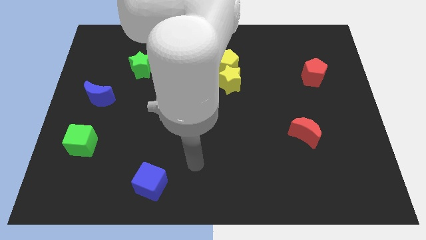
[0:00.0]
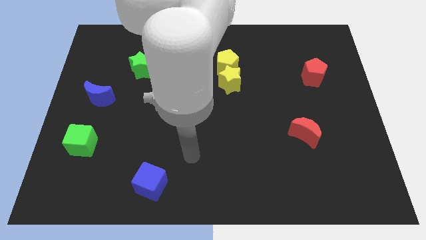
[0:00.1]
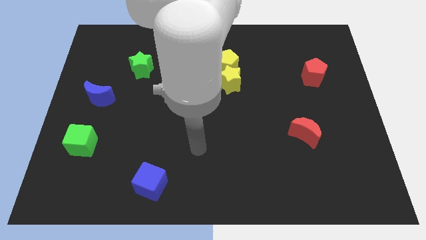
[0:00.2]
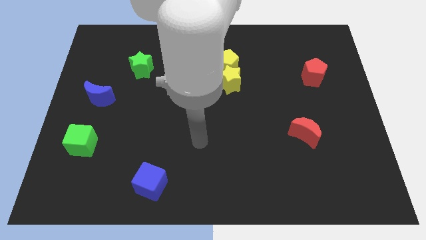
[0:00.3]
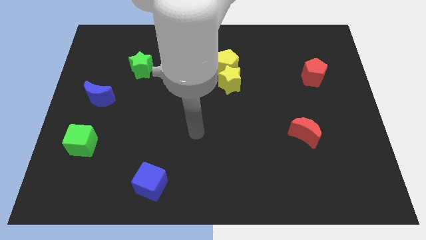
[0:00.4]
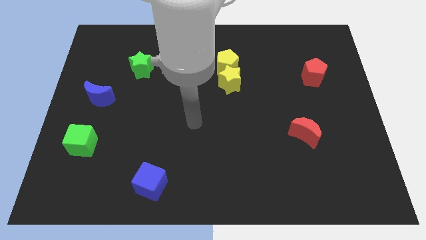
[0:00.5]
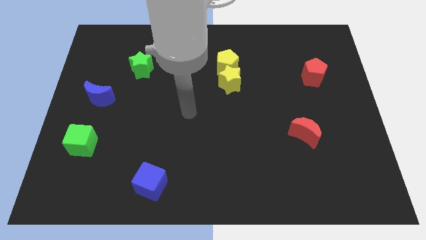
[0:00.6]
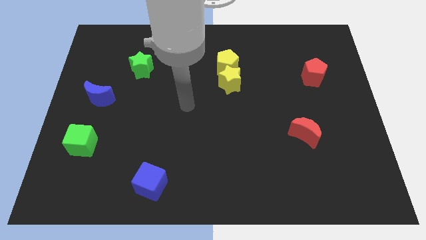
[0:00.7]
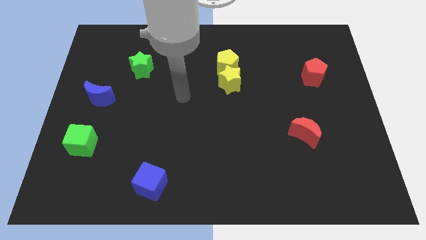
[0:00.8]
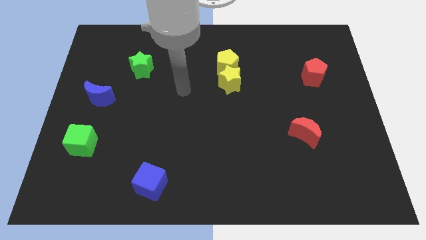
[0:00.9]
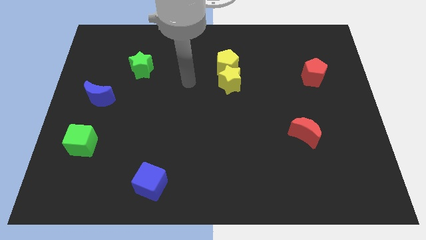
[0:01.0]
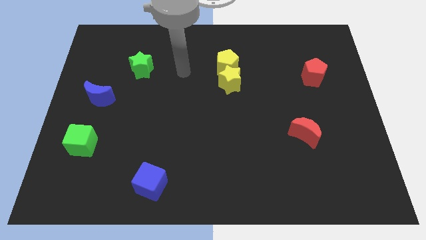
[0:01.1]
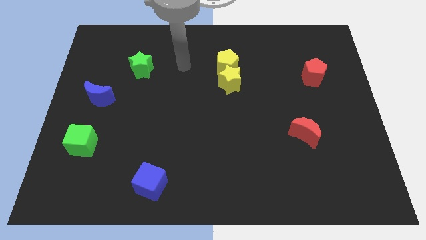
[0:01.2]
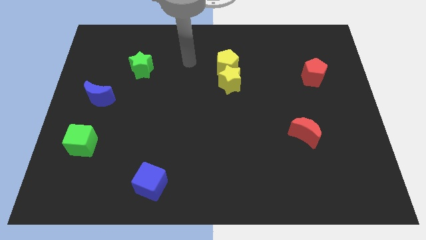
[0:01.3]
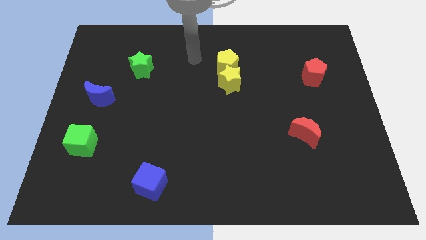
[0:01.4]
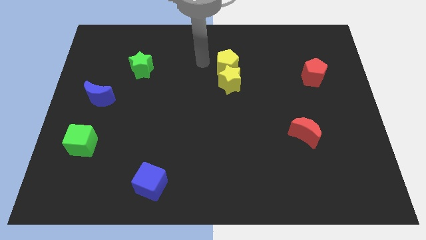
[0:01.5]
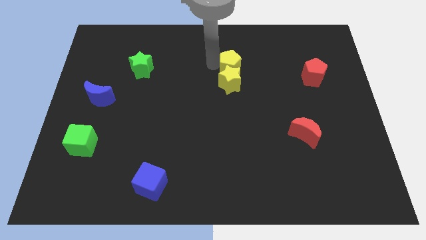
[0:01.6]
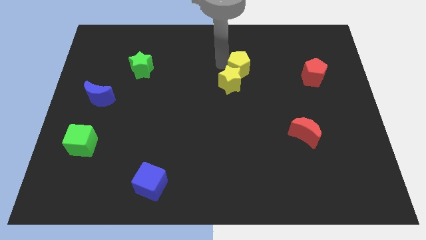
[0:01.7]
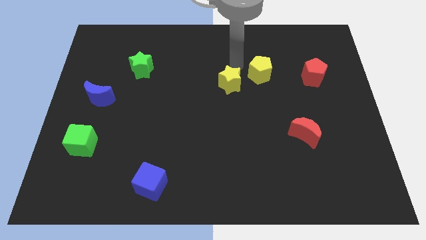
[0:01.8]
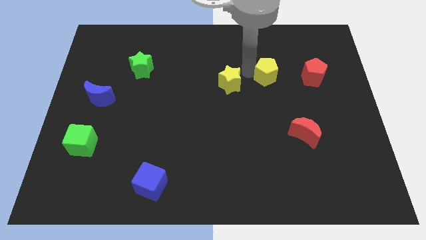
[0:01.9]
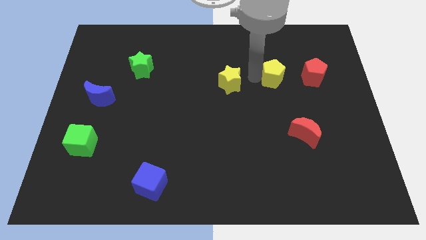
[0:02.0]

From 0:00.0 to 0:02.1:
separate the yellow star from the yellow pentagon

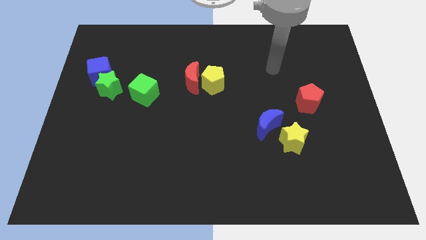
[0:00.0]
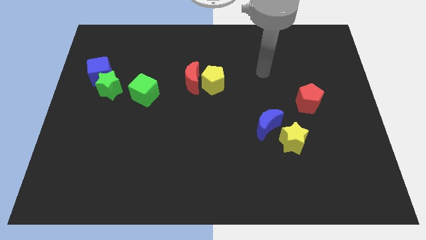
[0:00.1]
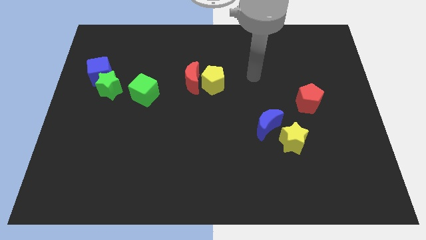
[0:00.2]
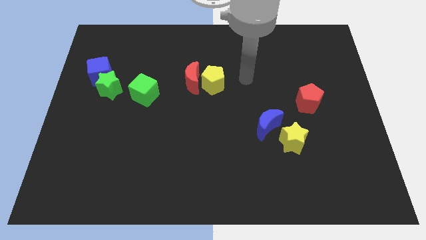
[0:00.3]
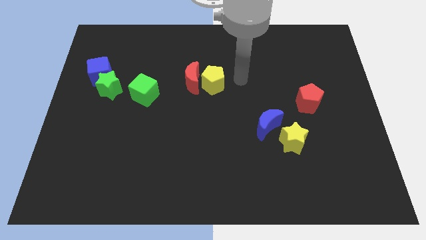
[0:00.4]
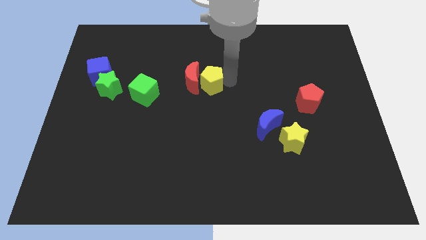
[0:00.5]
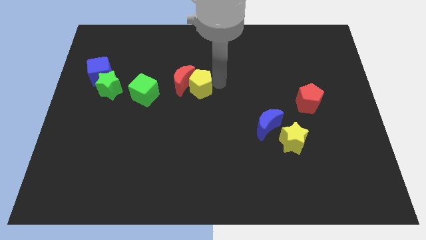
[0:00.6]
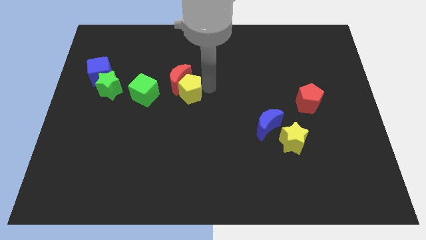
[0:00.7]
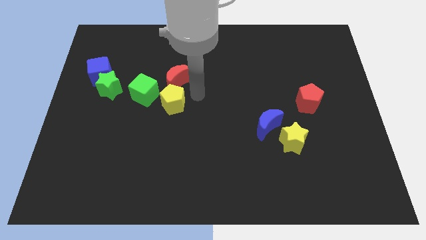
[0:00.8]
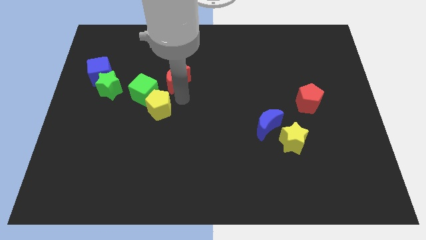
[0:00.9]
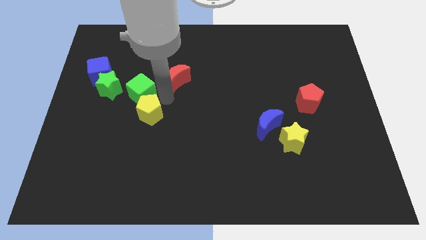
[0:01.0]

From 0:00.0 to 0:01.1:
separate the red moon from the yellow pentagon

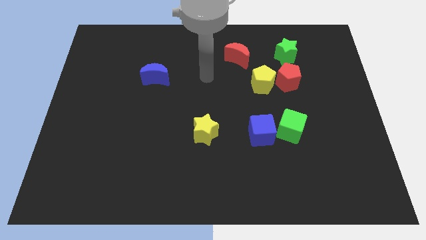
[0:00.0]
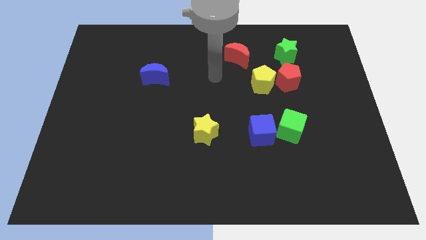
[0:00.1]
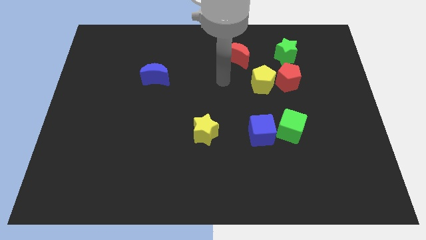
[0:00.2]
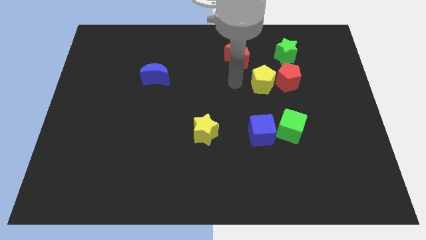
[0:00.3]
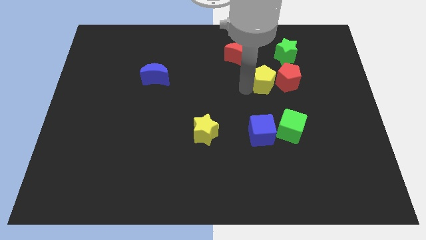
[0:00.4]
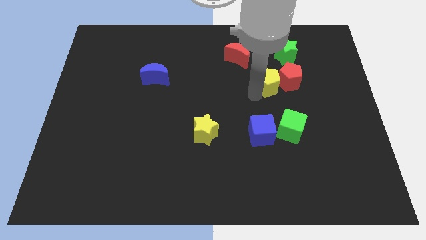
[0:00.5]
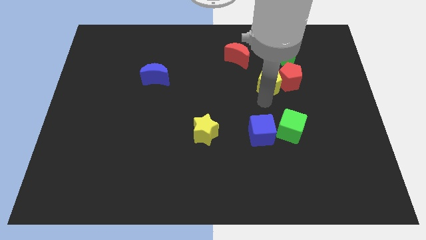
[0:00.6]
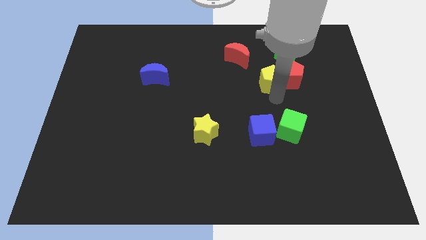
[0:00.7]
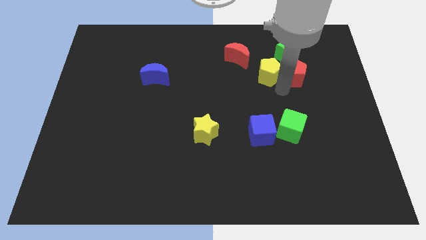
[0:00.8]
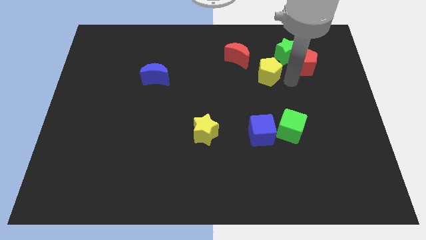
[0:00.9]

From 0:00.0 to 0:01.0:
move the yellow pentagon away from the red pentagon

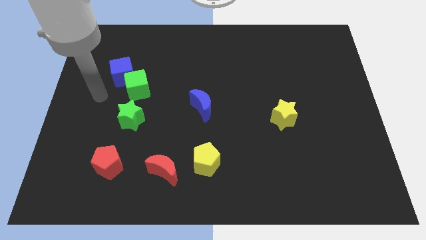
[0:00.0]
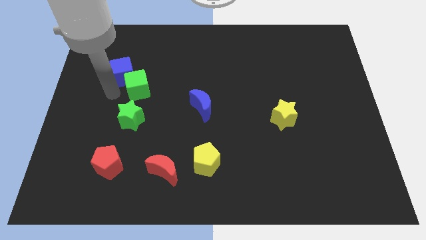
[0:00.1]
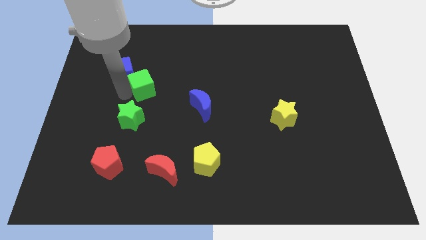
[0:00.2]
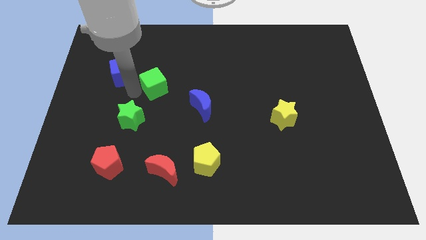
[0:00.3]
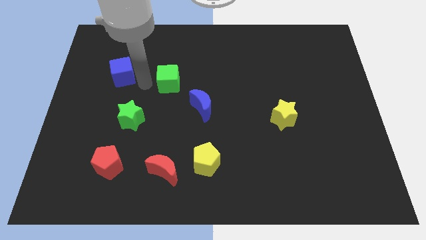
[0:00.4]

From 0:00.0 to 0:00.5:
pull the blue cube apart from the green cube

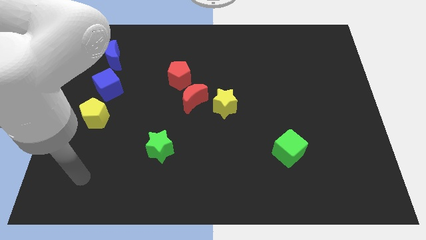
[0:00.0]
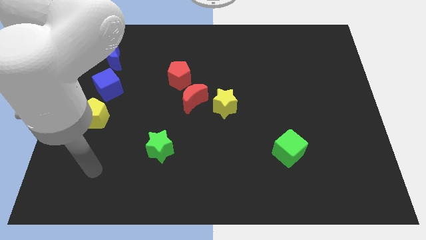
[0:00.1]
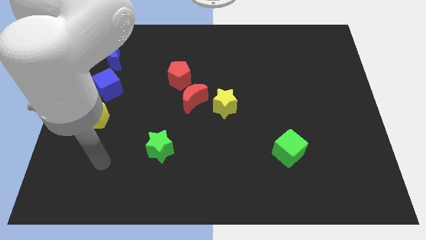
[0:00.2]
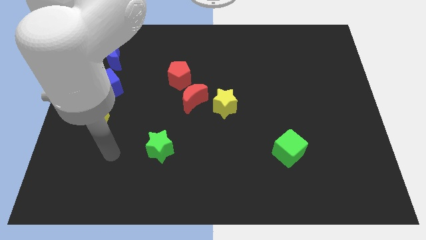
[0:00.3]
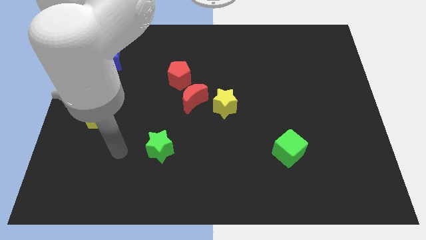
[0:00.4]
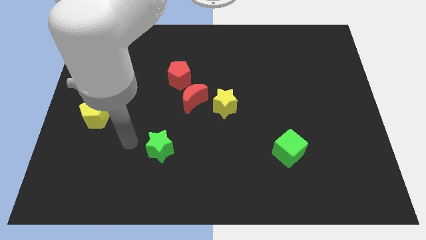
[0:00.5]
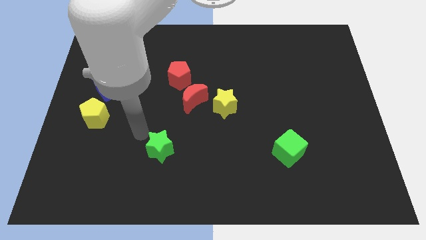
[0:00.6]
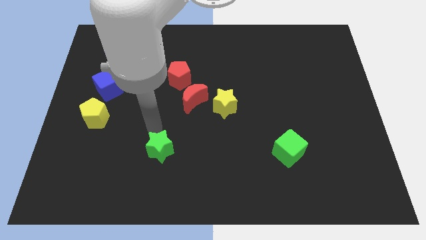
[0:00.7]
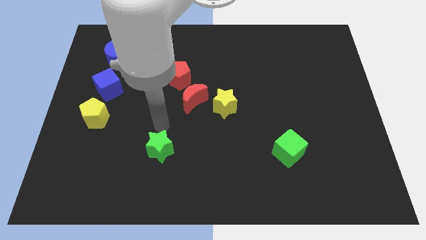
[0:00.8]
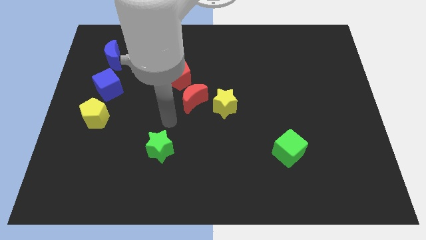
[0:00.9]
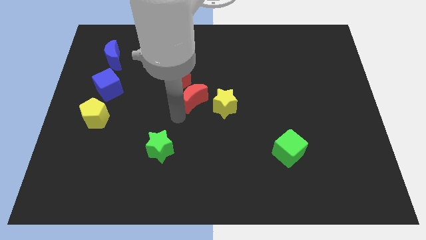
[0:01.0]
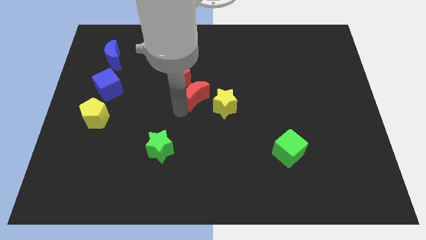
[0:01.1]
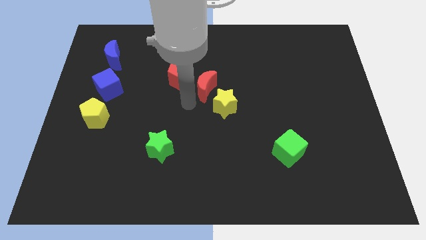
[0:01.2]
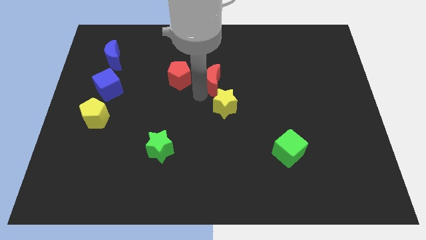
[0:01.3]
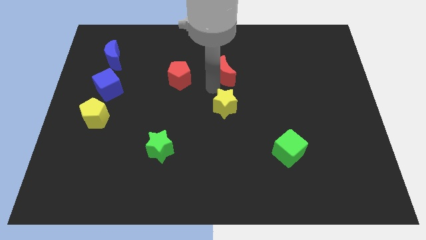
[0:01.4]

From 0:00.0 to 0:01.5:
separate the yellow star from the red moon

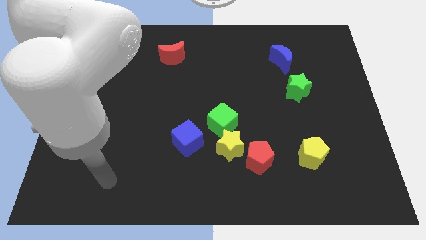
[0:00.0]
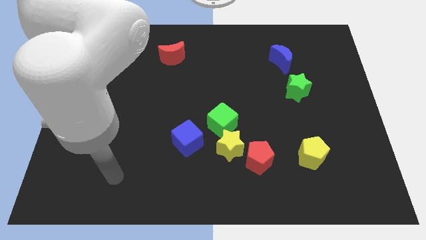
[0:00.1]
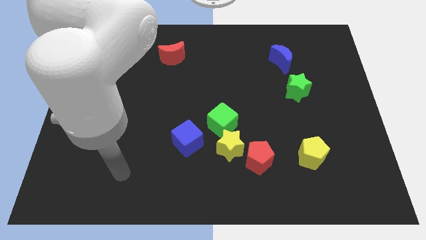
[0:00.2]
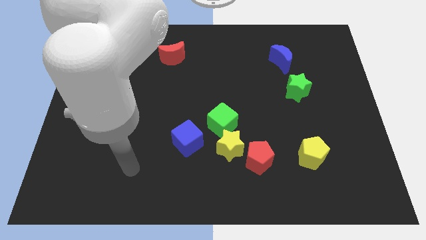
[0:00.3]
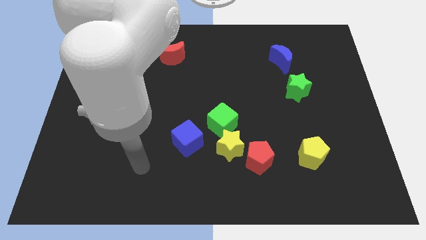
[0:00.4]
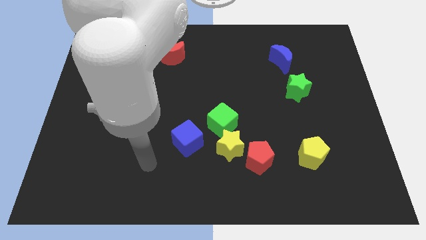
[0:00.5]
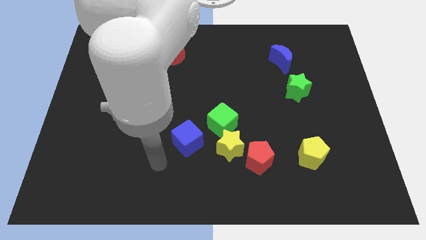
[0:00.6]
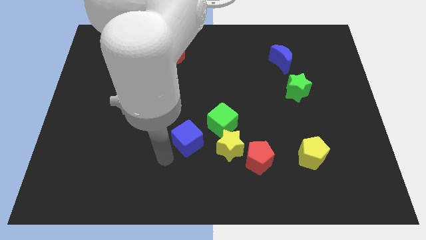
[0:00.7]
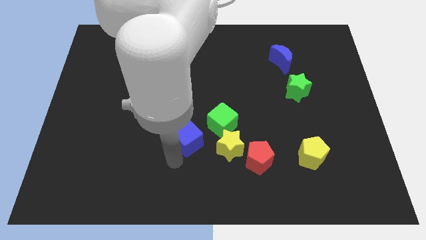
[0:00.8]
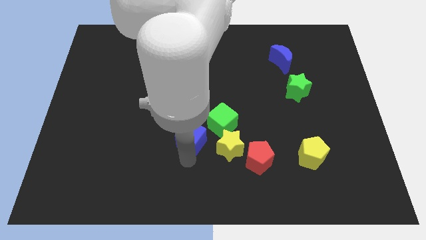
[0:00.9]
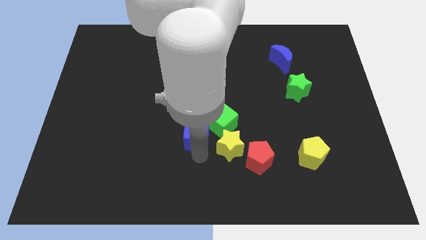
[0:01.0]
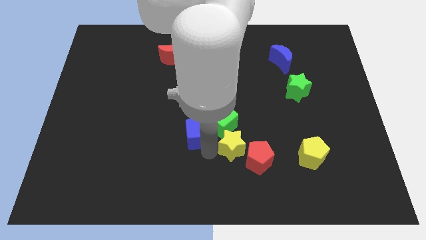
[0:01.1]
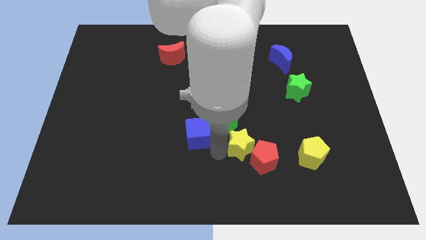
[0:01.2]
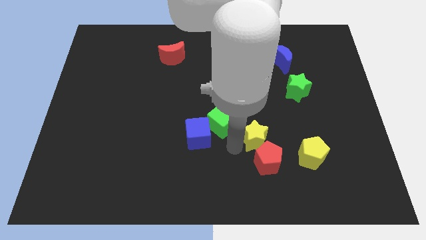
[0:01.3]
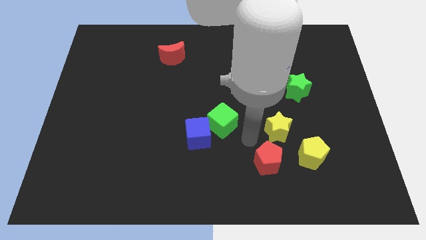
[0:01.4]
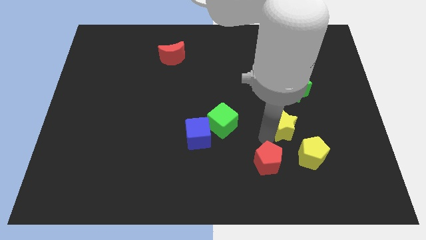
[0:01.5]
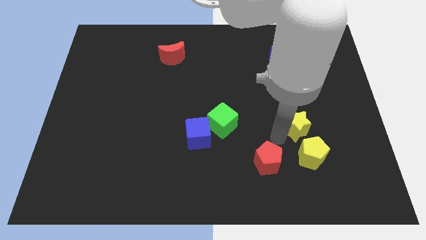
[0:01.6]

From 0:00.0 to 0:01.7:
pull the red pentagon apart from the yellow star

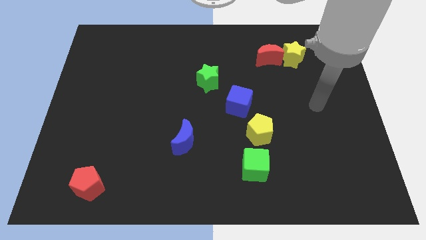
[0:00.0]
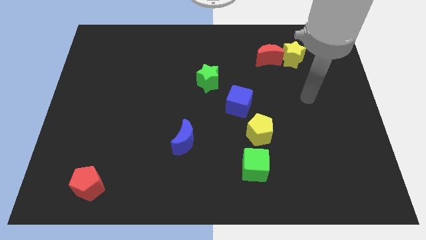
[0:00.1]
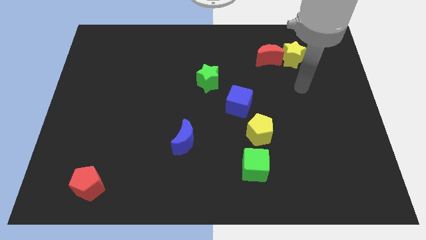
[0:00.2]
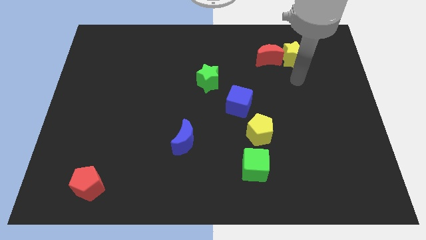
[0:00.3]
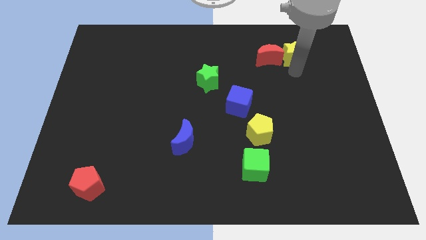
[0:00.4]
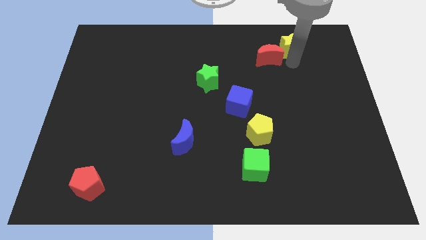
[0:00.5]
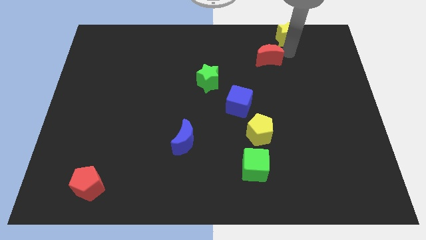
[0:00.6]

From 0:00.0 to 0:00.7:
separate the red moon from the yellow star

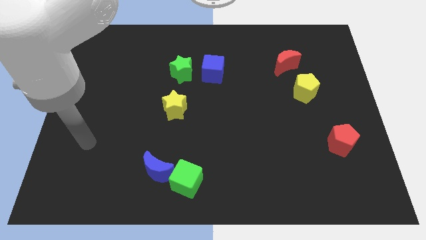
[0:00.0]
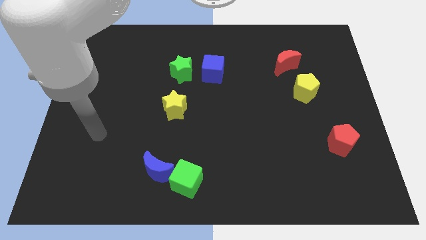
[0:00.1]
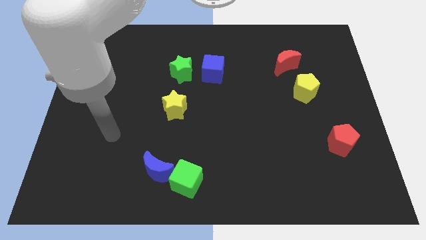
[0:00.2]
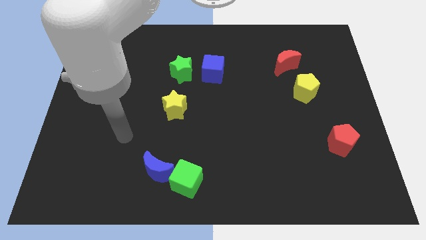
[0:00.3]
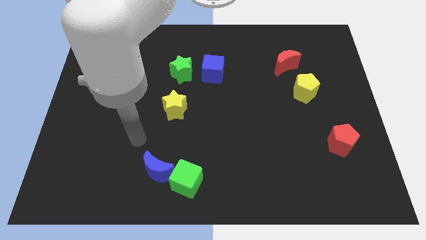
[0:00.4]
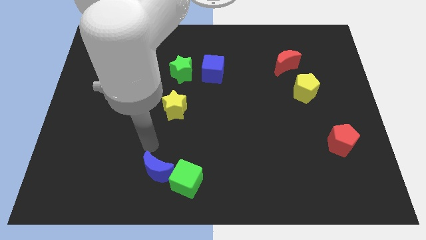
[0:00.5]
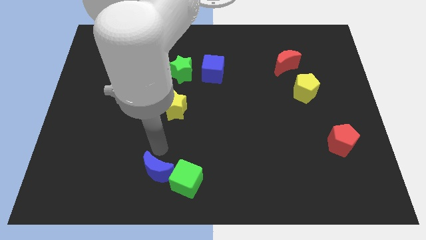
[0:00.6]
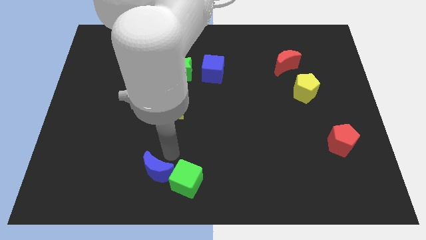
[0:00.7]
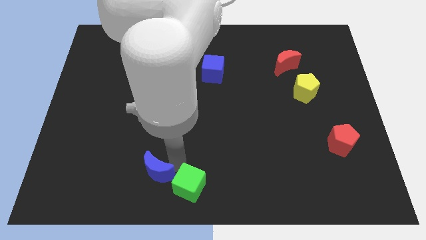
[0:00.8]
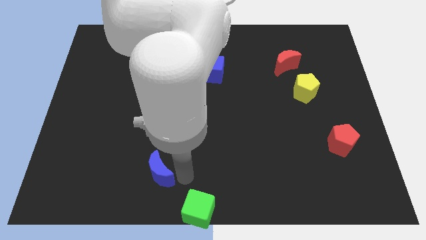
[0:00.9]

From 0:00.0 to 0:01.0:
separate the blue moon from the green cube
